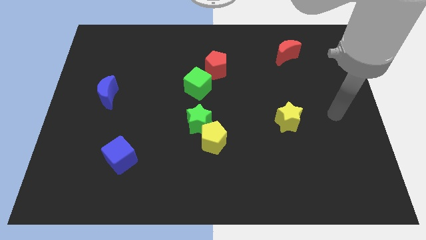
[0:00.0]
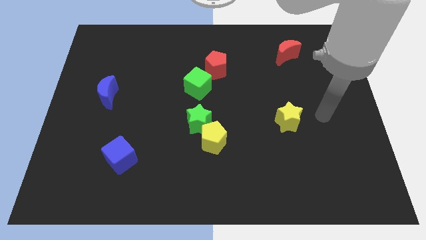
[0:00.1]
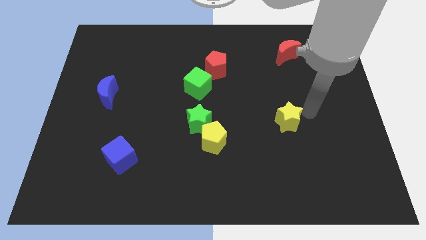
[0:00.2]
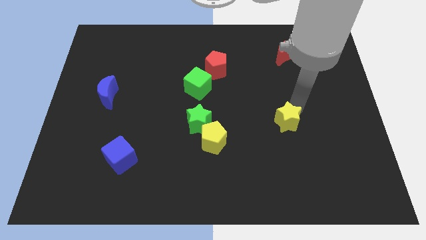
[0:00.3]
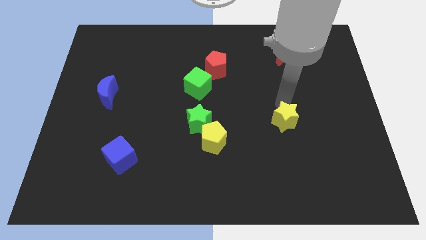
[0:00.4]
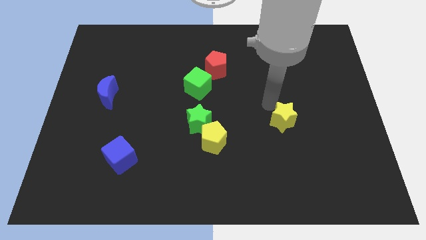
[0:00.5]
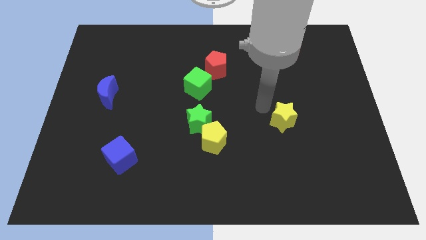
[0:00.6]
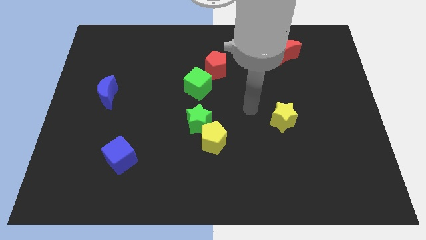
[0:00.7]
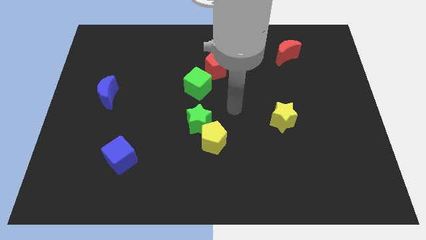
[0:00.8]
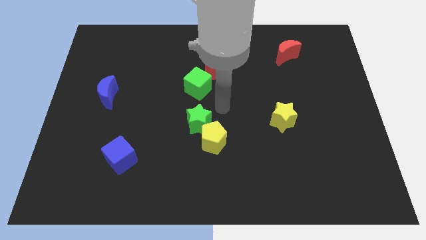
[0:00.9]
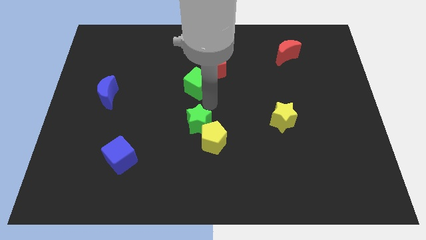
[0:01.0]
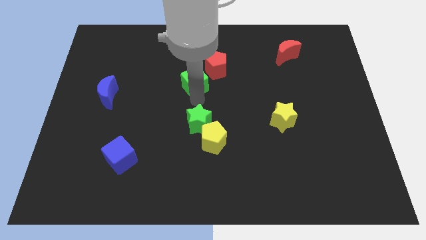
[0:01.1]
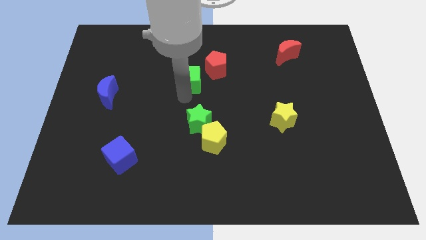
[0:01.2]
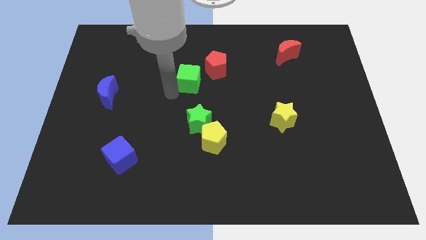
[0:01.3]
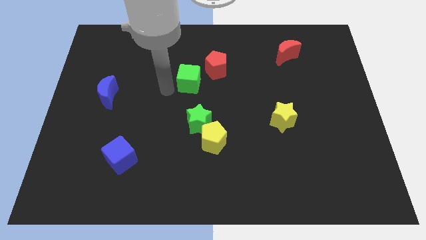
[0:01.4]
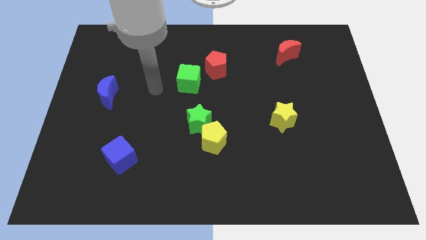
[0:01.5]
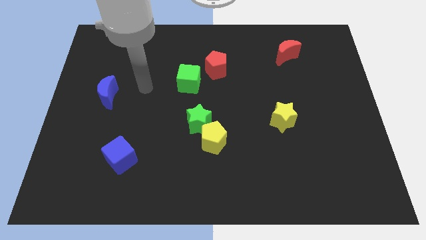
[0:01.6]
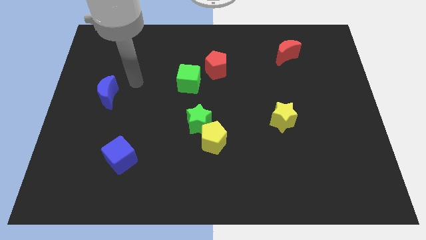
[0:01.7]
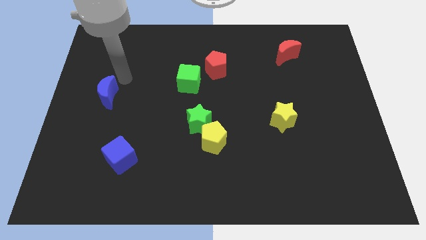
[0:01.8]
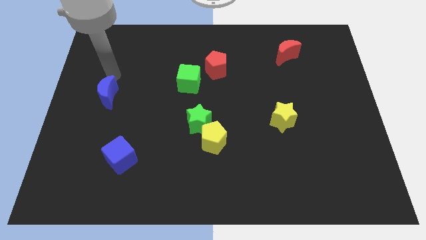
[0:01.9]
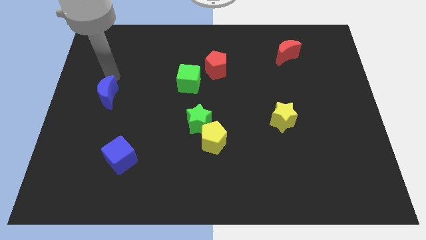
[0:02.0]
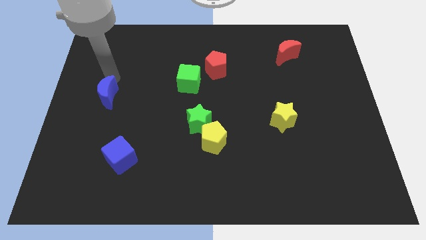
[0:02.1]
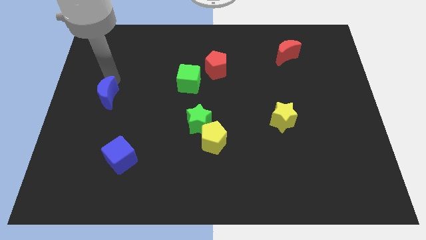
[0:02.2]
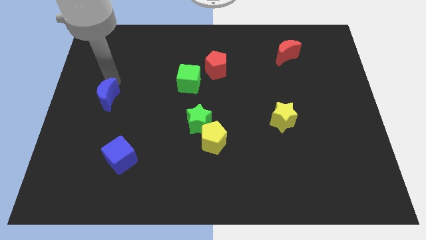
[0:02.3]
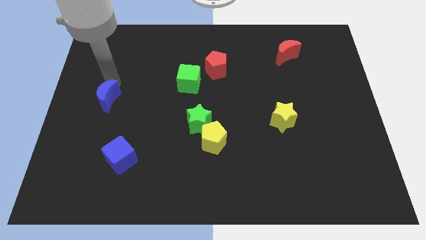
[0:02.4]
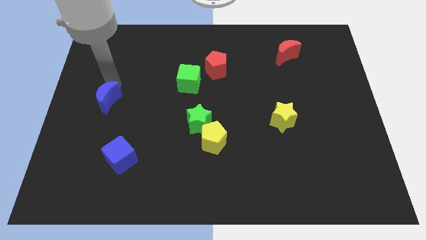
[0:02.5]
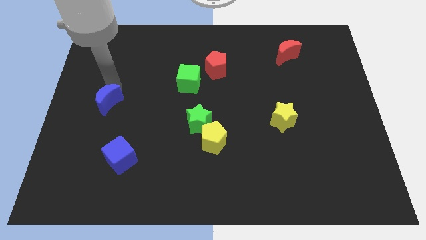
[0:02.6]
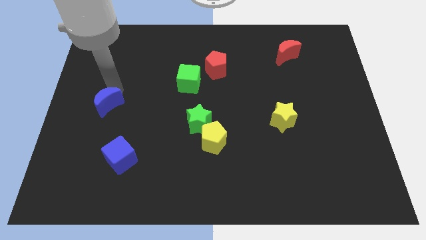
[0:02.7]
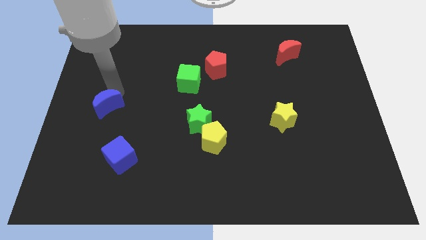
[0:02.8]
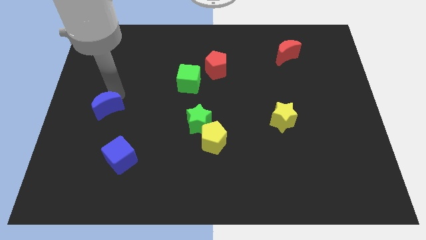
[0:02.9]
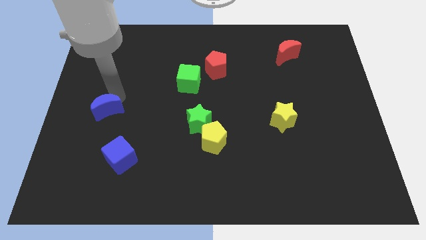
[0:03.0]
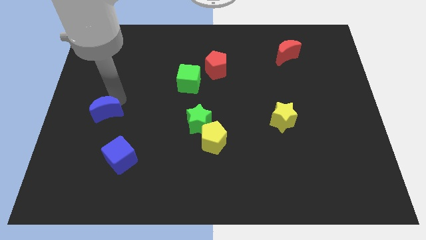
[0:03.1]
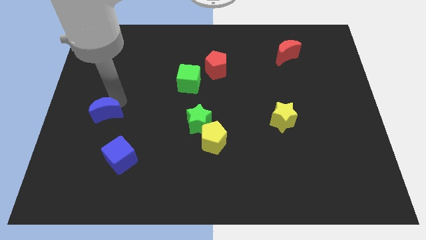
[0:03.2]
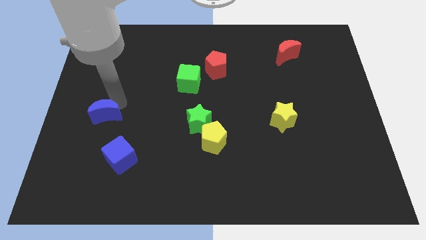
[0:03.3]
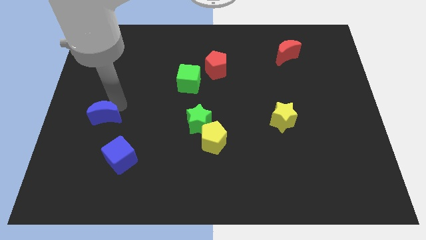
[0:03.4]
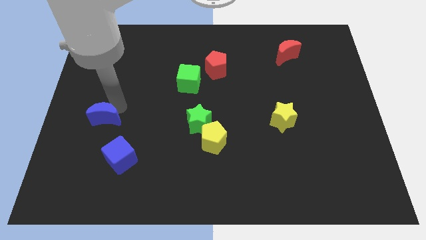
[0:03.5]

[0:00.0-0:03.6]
move the blue moon down a bit

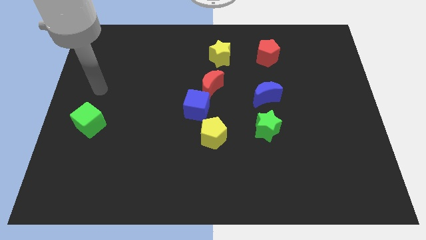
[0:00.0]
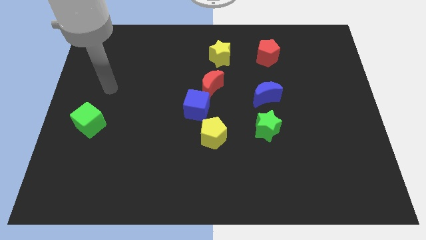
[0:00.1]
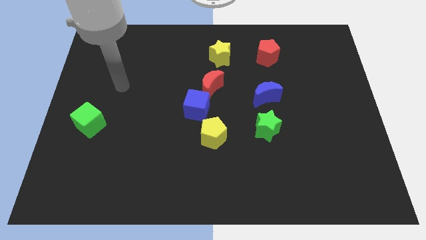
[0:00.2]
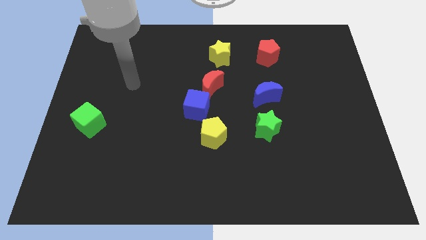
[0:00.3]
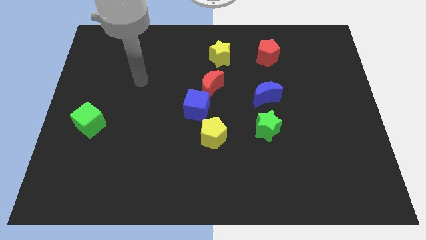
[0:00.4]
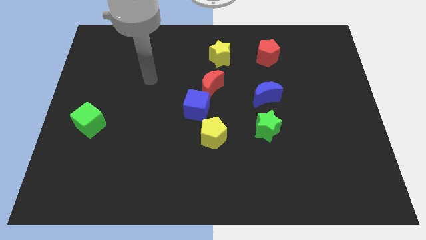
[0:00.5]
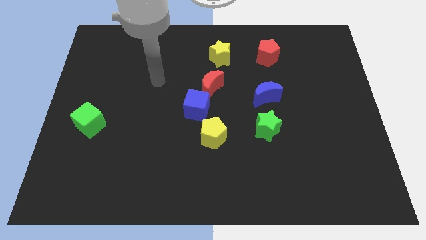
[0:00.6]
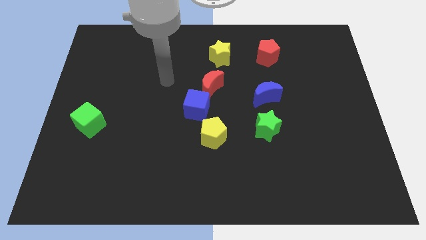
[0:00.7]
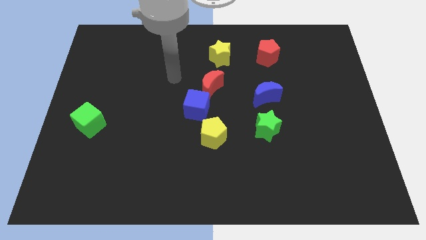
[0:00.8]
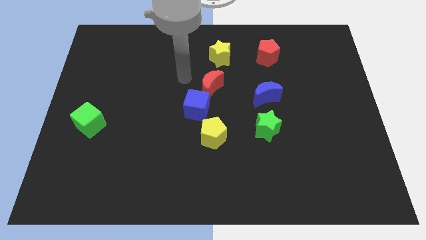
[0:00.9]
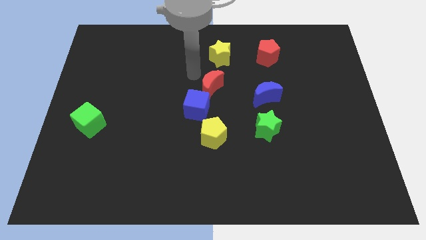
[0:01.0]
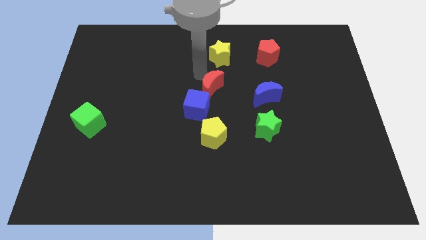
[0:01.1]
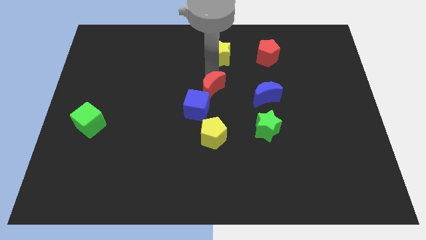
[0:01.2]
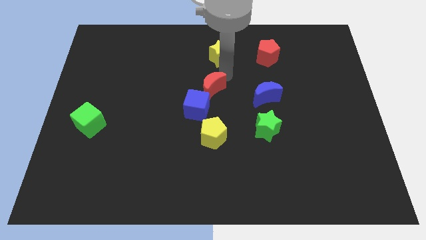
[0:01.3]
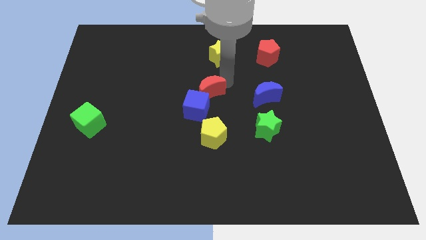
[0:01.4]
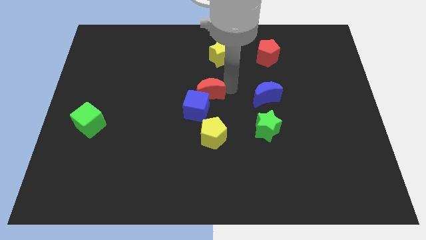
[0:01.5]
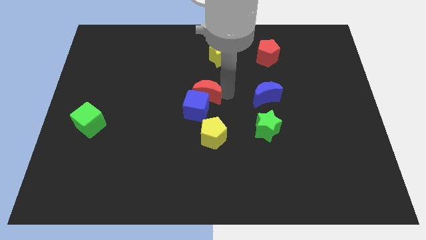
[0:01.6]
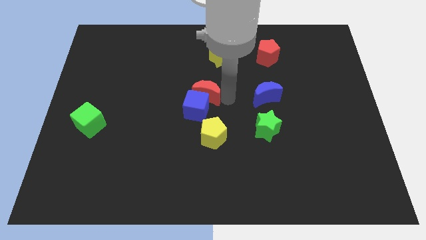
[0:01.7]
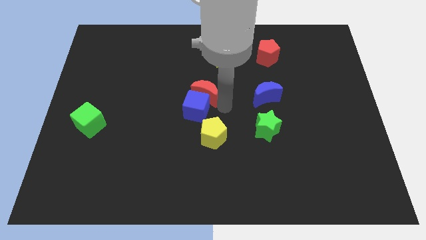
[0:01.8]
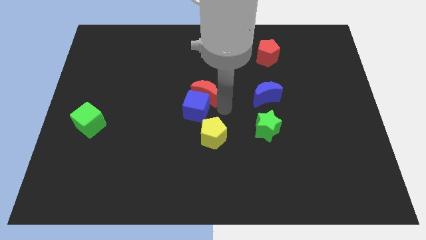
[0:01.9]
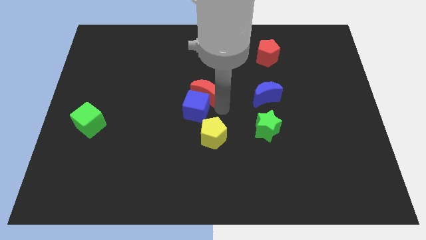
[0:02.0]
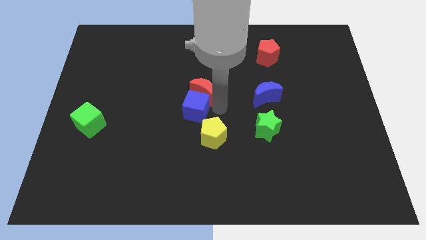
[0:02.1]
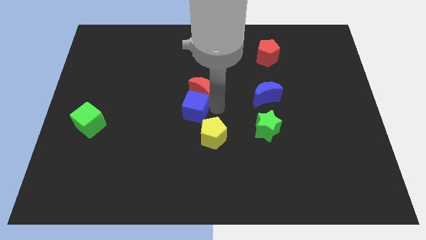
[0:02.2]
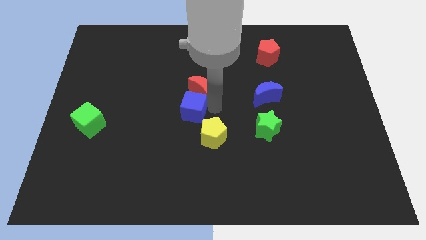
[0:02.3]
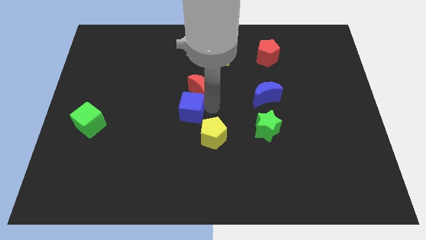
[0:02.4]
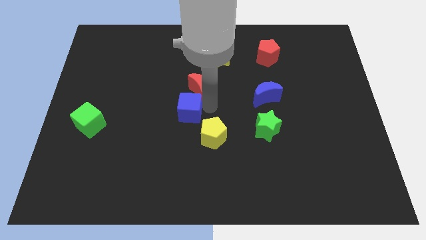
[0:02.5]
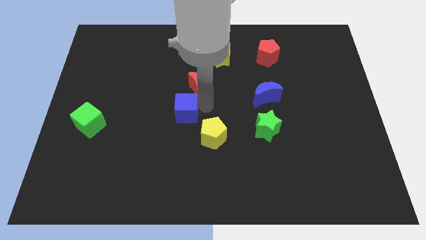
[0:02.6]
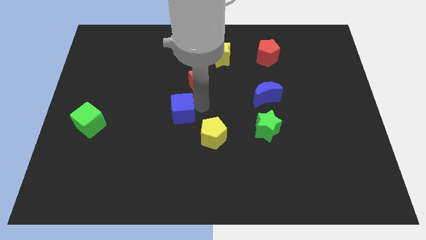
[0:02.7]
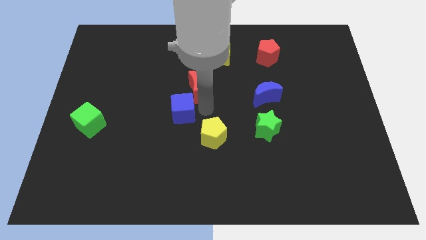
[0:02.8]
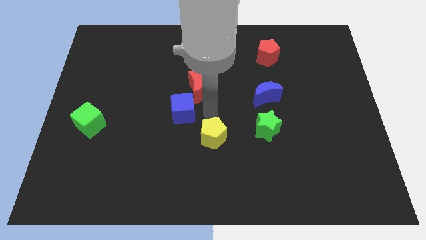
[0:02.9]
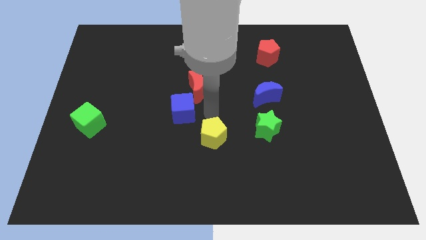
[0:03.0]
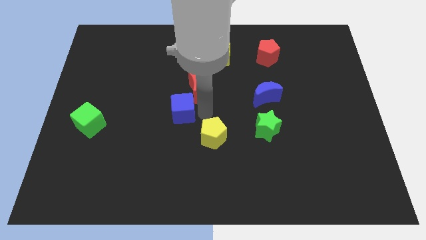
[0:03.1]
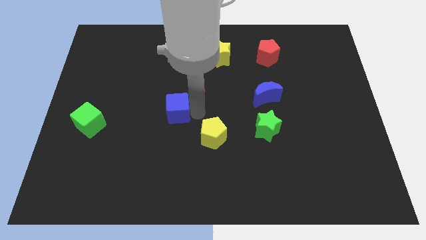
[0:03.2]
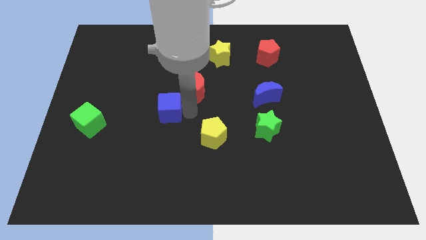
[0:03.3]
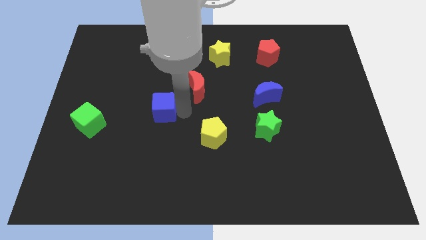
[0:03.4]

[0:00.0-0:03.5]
move the blue cube a bit left

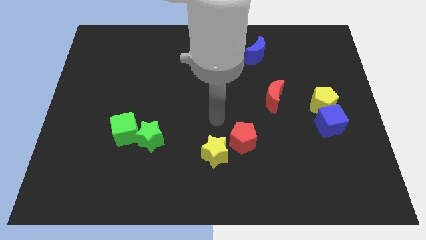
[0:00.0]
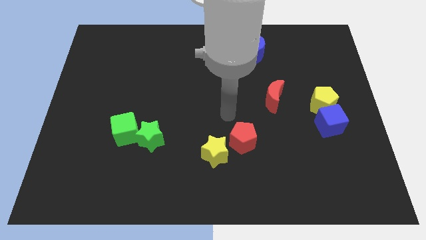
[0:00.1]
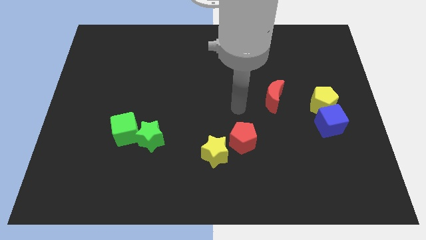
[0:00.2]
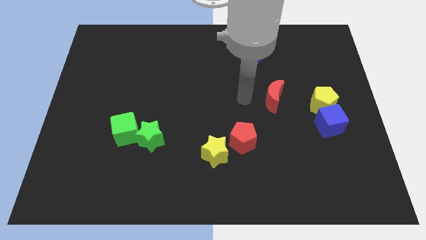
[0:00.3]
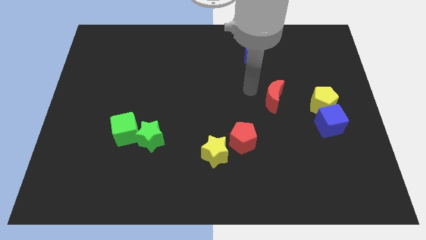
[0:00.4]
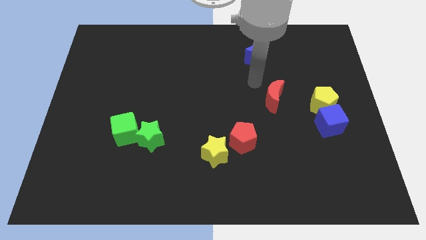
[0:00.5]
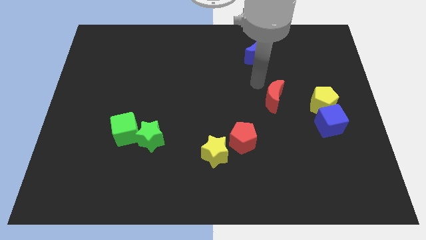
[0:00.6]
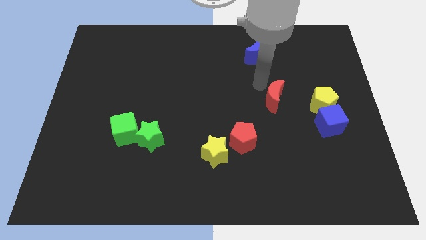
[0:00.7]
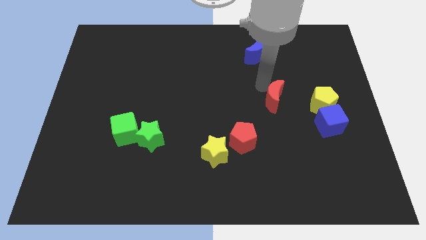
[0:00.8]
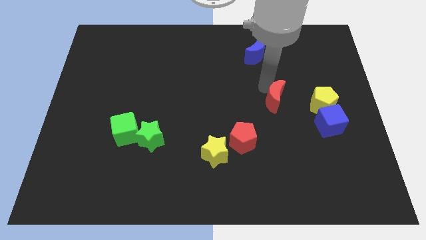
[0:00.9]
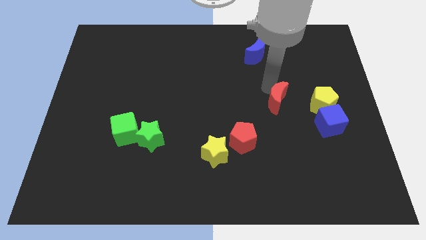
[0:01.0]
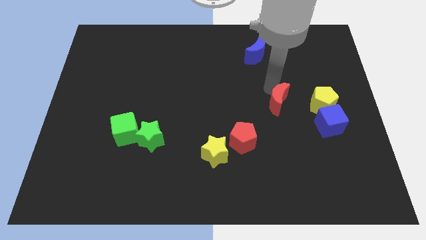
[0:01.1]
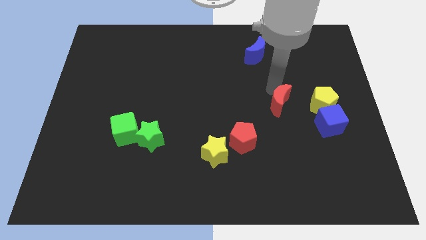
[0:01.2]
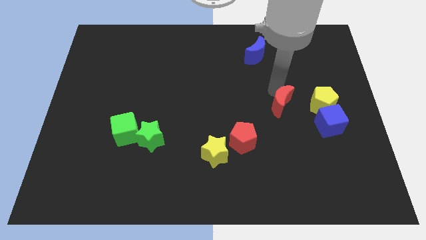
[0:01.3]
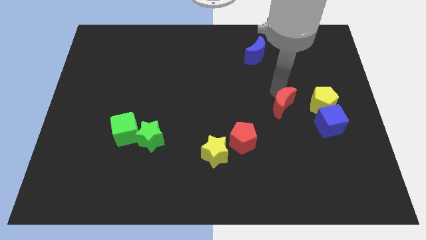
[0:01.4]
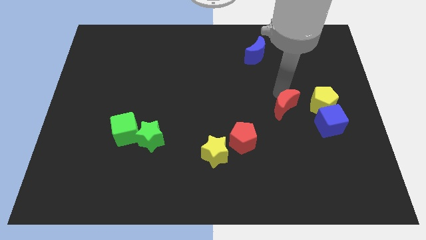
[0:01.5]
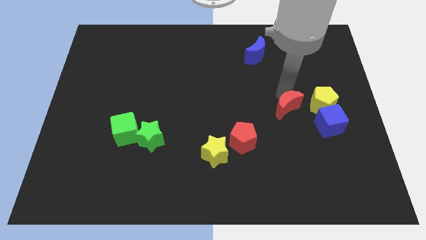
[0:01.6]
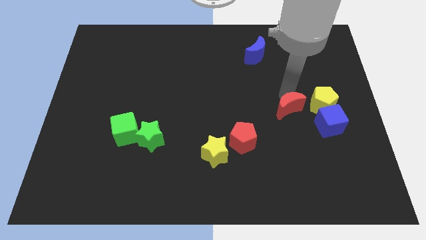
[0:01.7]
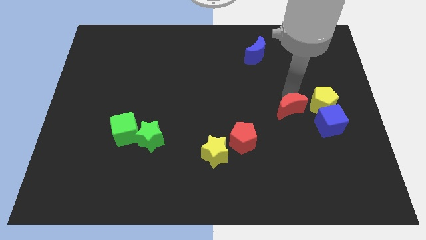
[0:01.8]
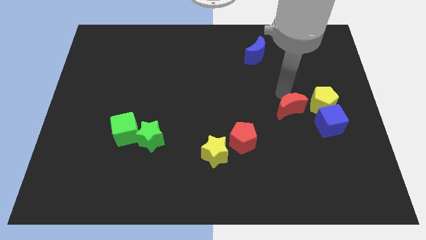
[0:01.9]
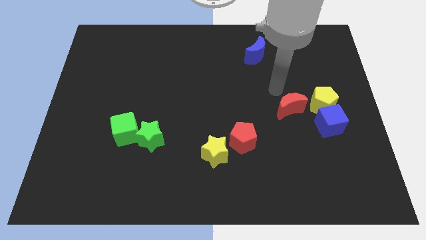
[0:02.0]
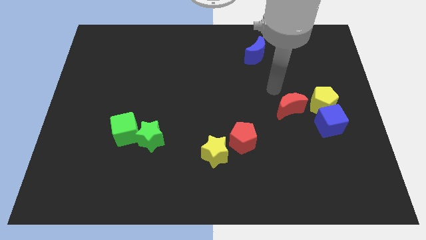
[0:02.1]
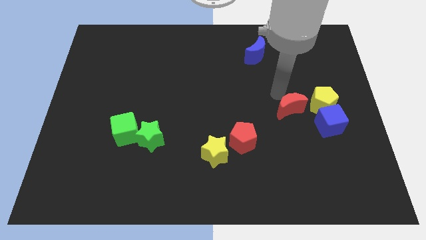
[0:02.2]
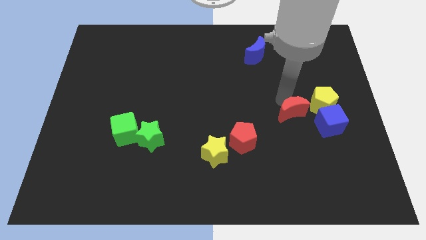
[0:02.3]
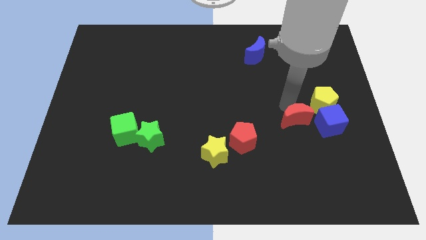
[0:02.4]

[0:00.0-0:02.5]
move the red moon a bit down and right diagonally
